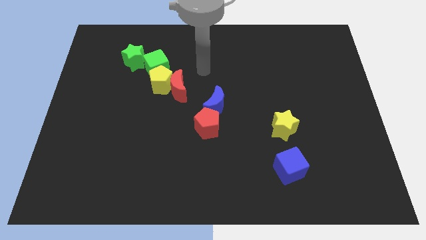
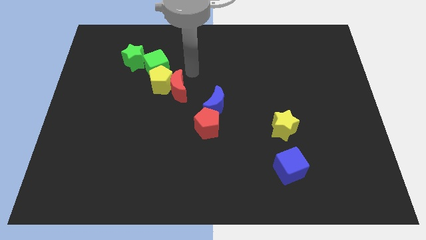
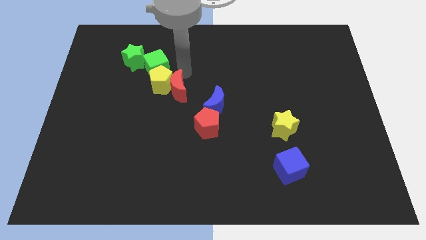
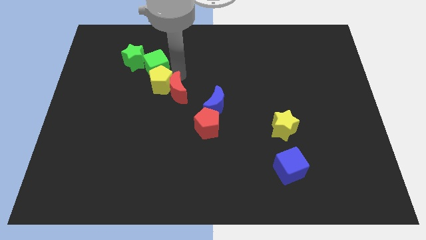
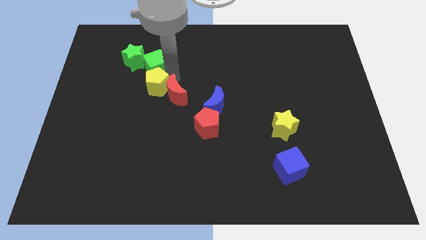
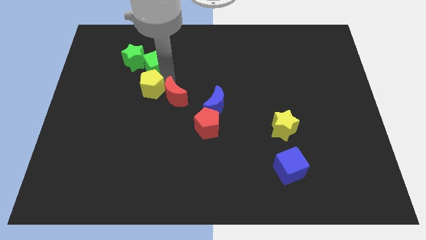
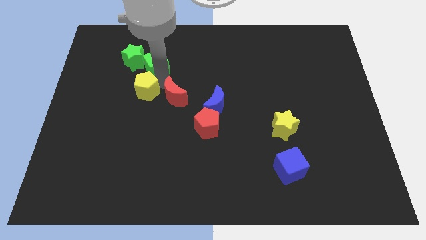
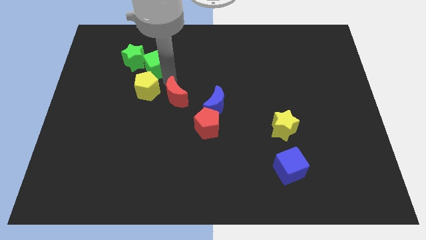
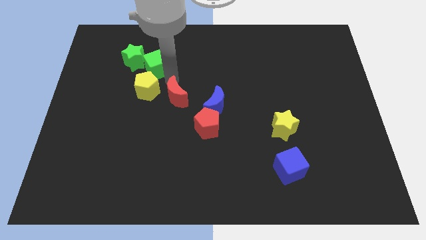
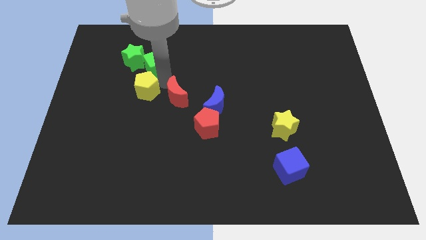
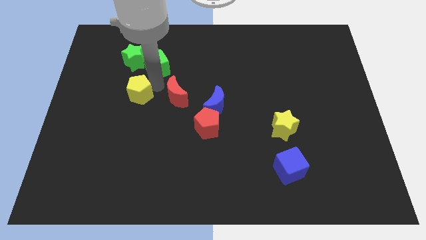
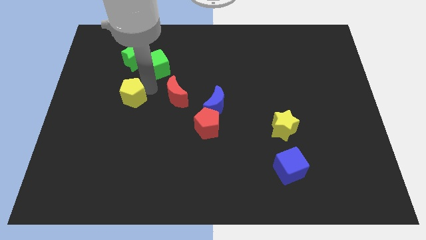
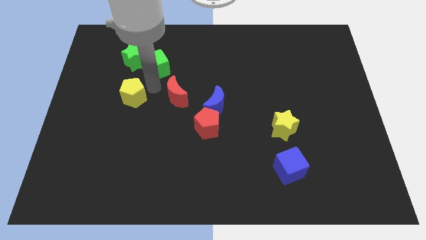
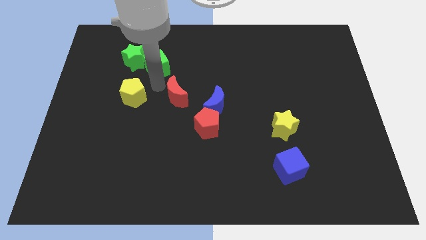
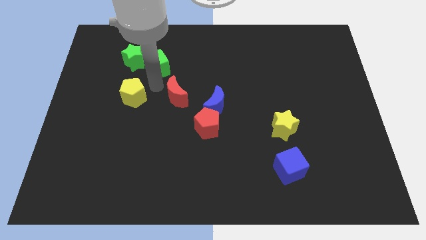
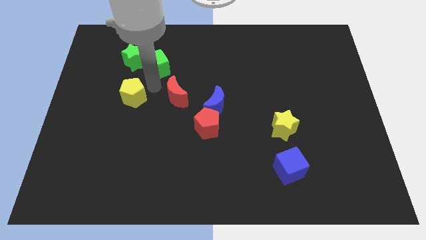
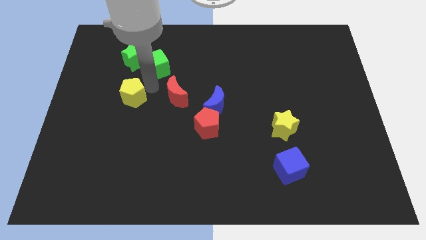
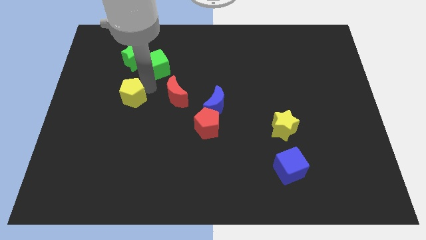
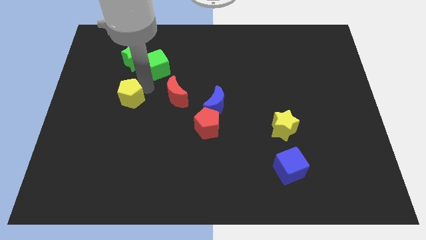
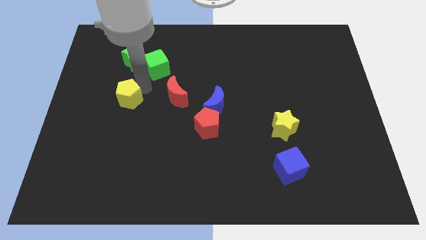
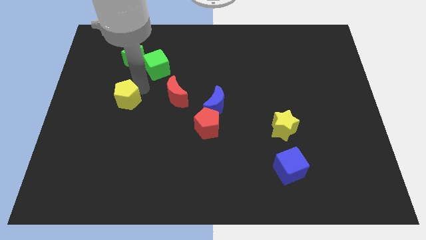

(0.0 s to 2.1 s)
pull the yellow pentagon apart from the red moon and green cube

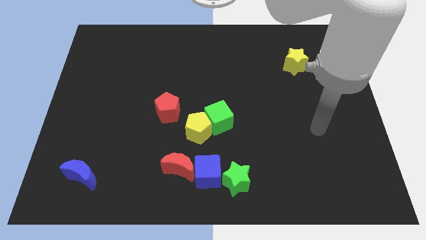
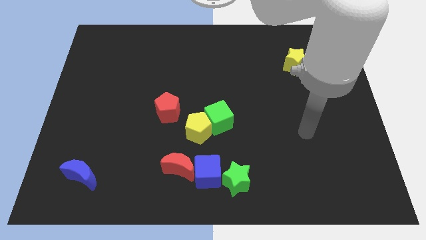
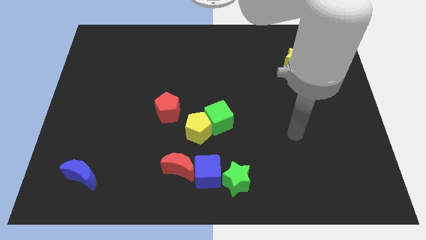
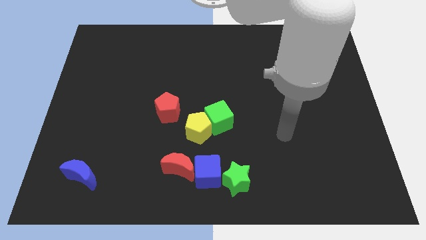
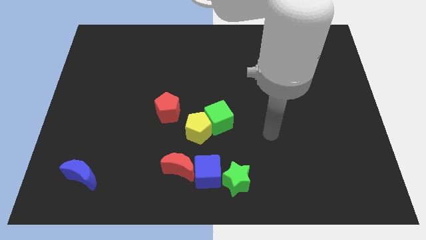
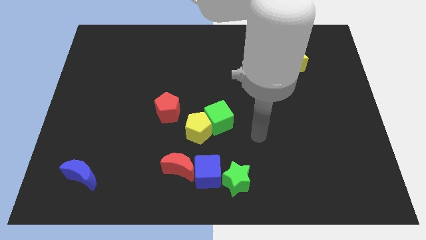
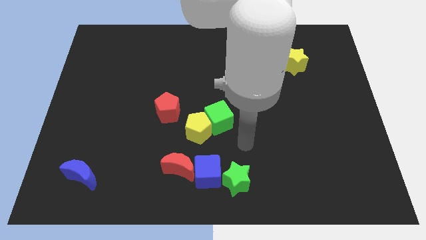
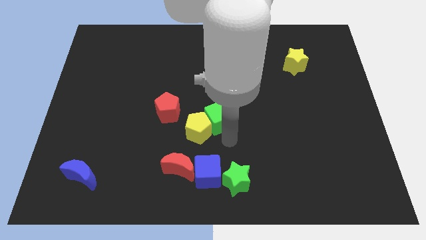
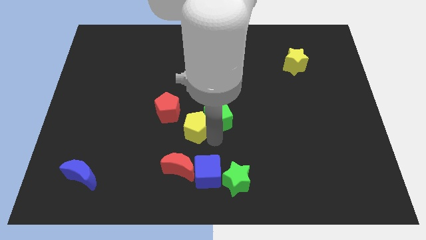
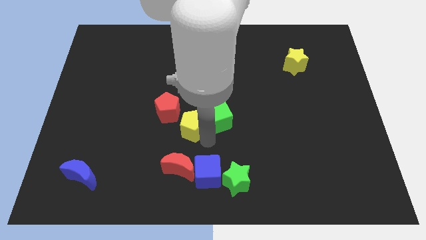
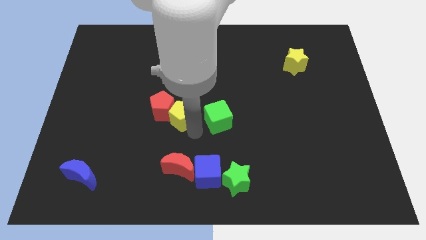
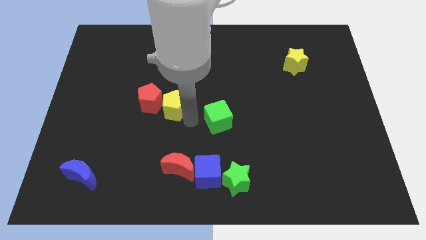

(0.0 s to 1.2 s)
move the green cube away from the yellow pentagon

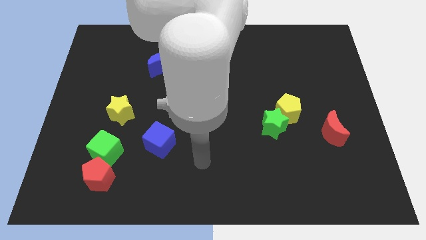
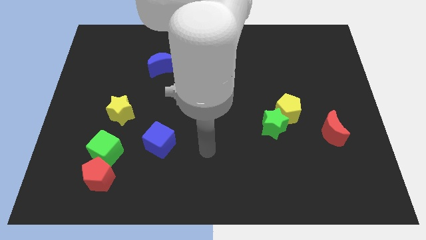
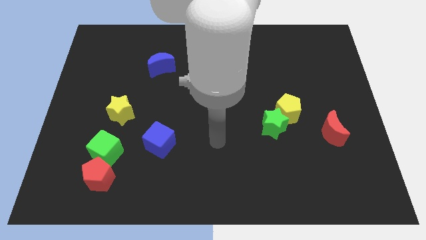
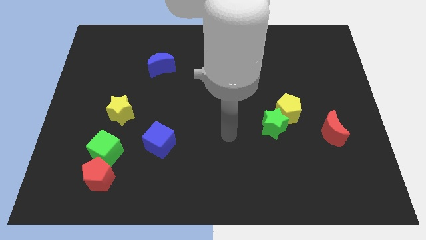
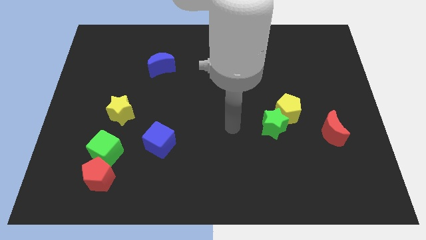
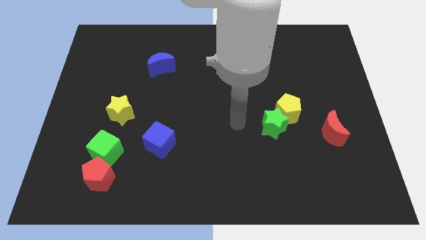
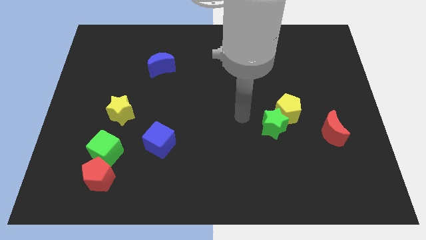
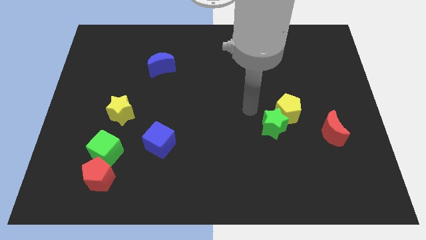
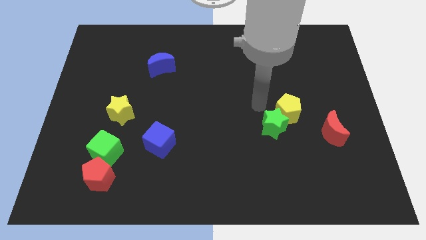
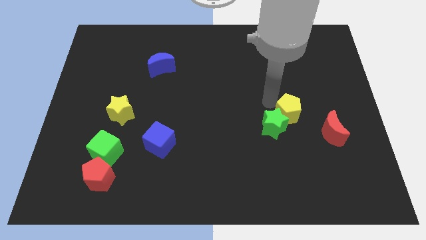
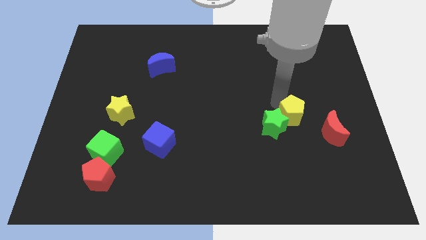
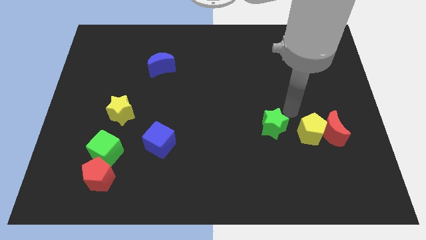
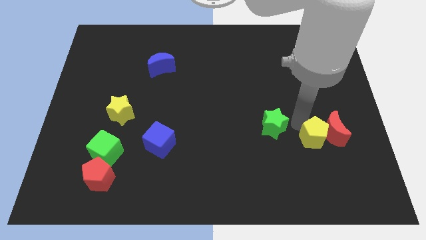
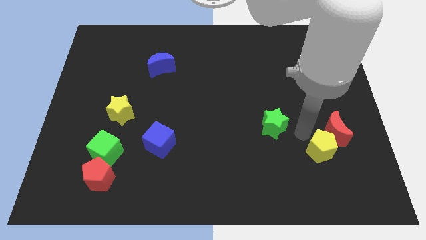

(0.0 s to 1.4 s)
separate the green star from the yellow pentagon

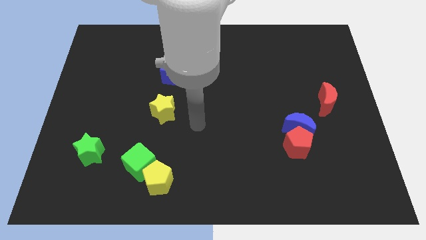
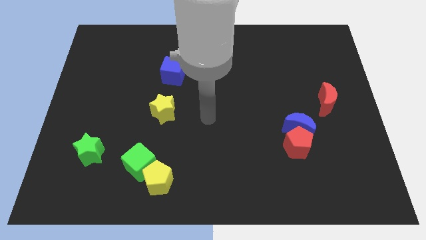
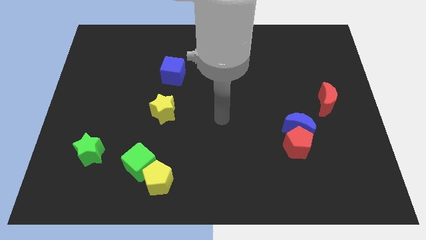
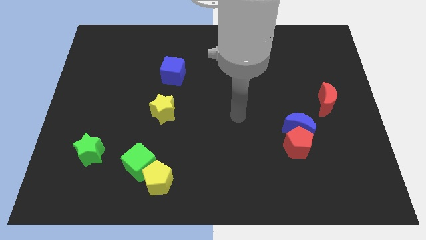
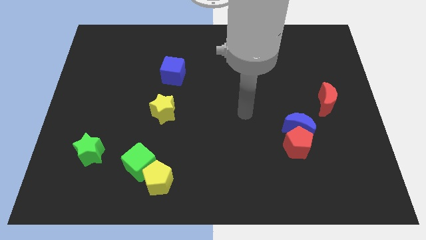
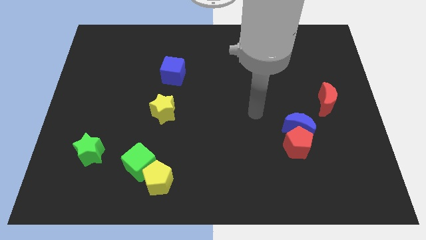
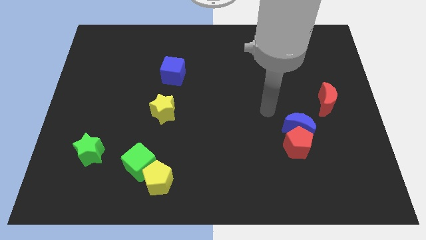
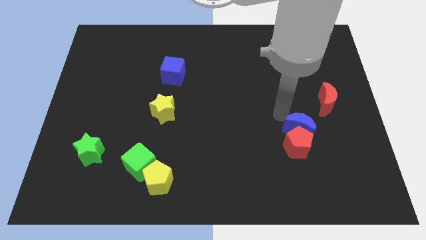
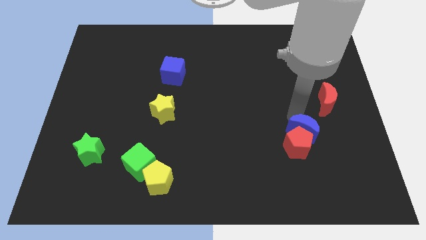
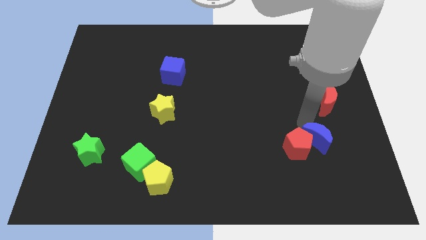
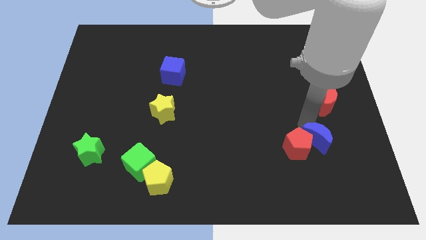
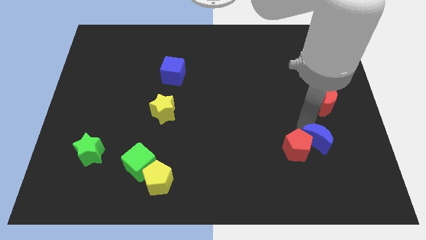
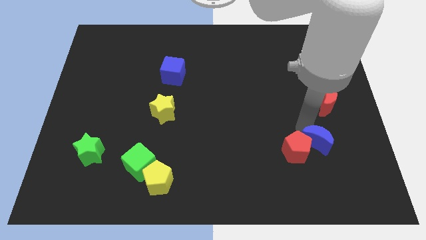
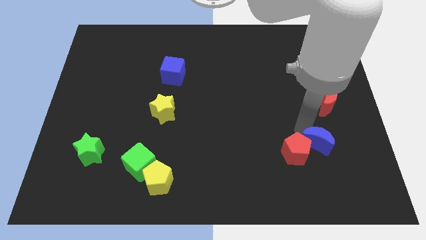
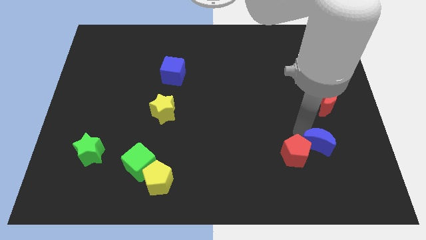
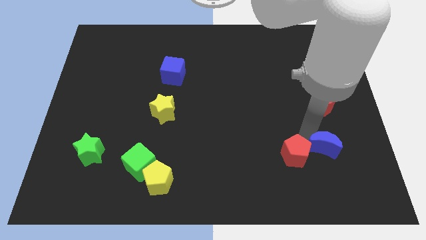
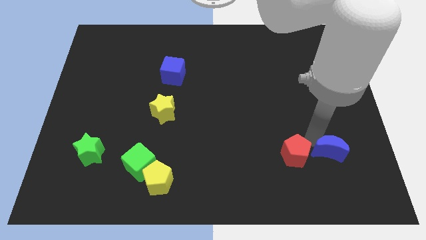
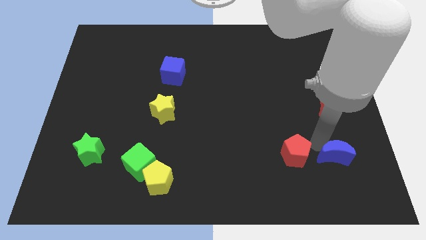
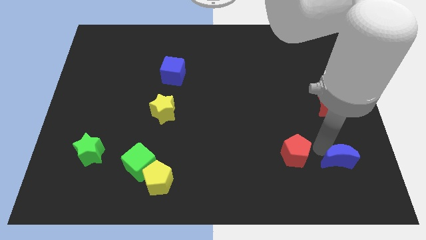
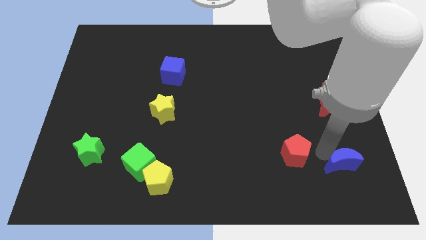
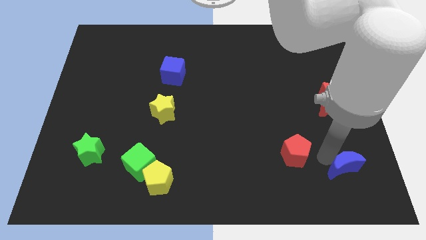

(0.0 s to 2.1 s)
separate the red pentagon from the blue moon

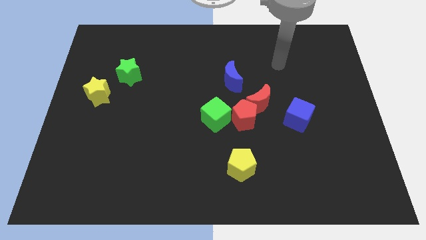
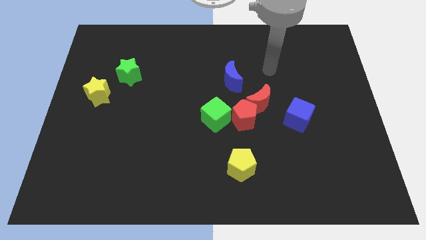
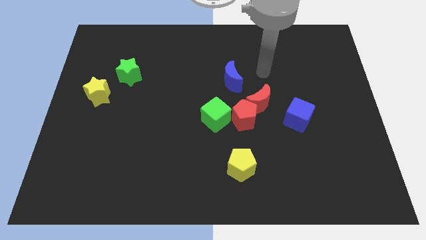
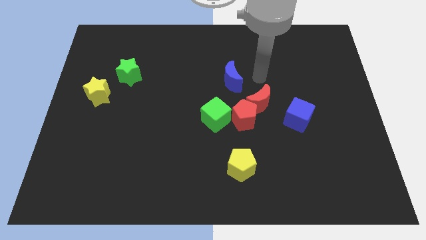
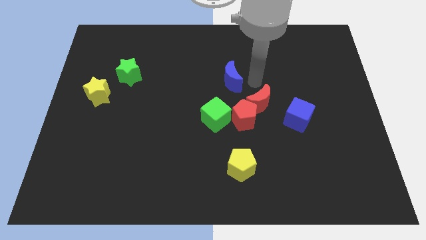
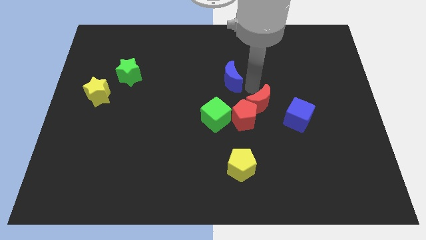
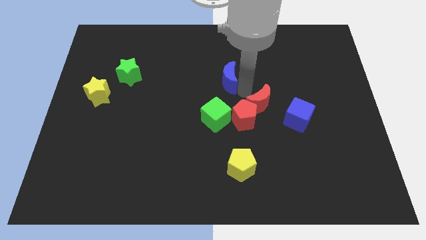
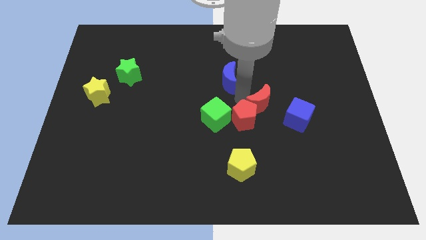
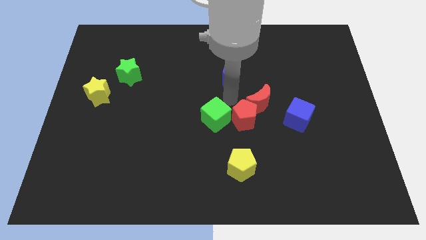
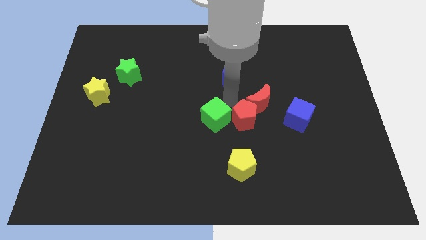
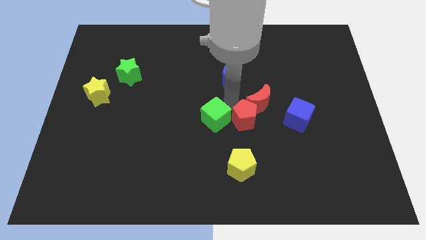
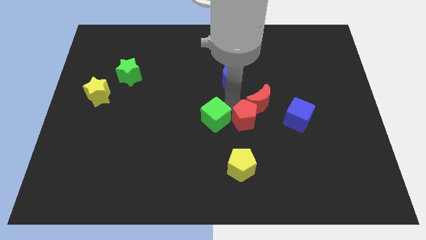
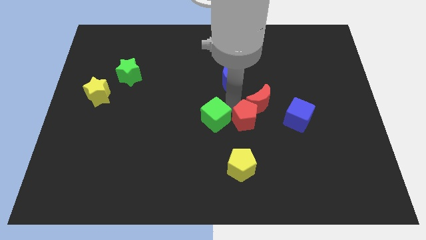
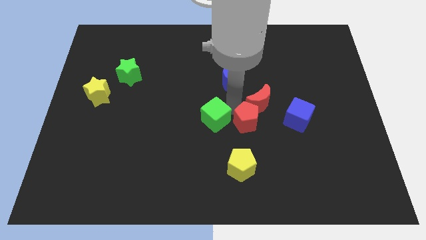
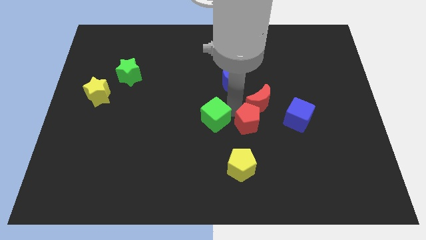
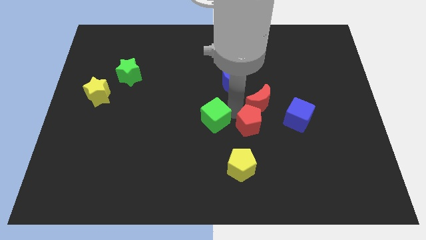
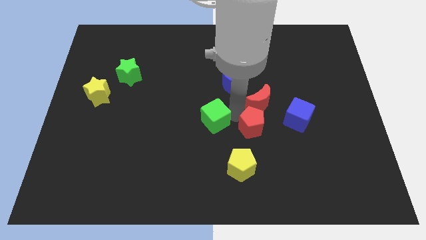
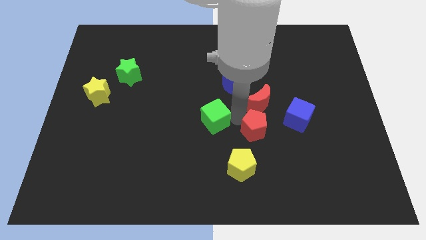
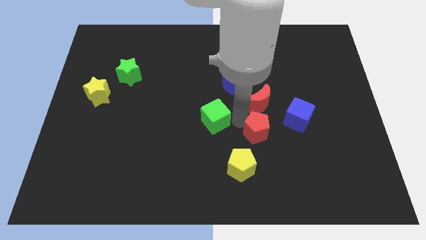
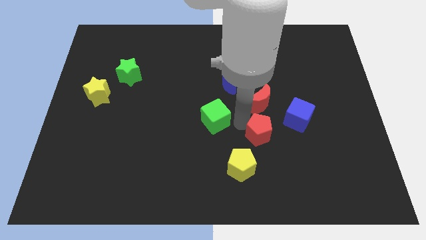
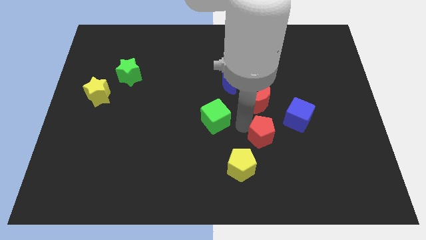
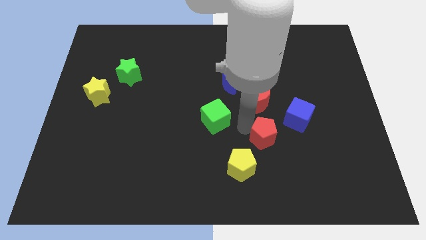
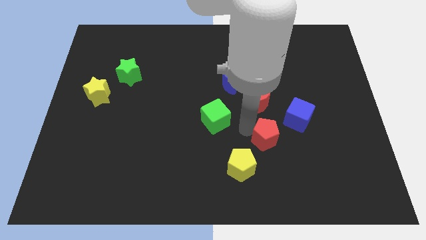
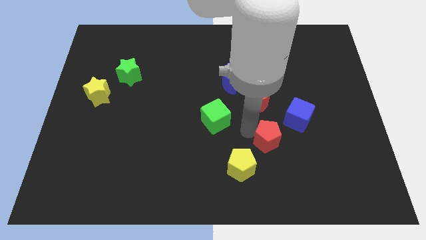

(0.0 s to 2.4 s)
separate the red pentagon from the red moon and green cube

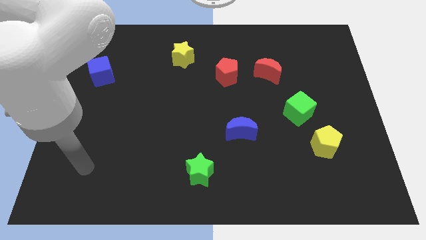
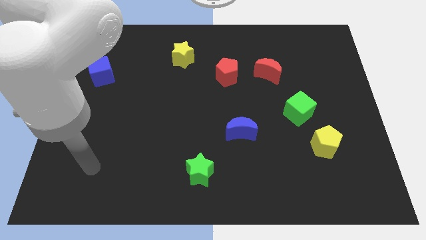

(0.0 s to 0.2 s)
separate the green cube from the yellow pentagon
